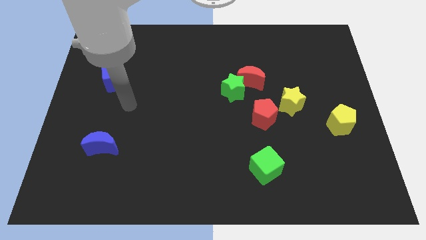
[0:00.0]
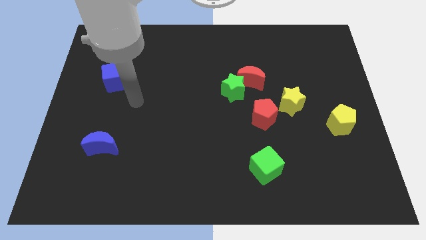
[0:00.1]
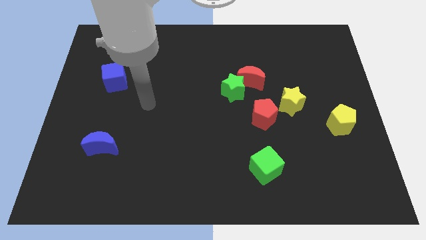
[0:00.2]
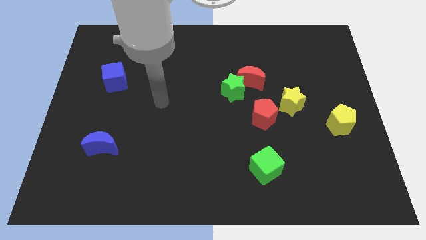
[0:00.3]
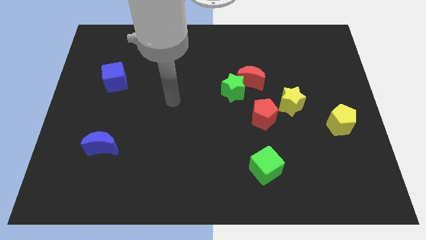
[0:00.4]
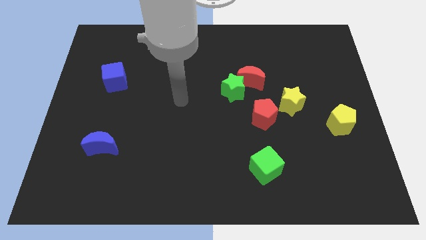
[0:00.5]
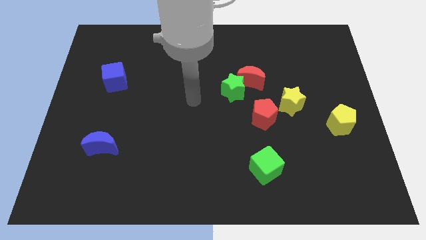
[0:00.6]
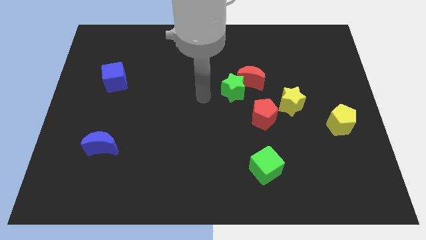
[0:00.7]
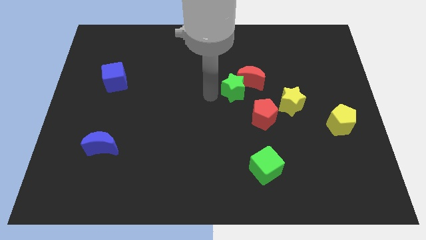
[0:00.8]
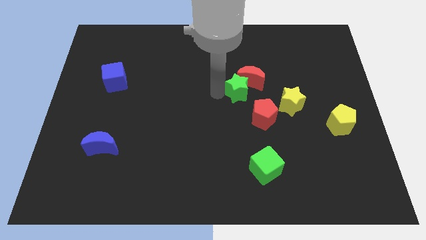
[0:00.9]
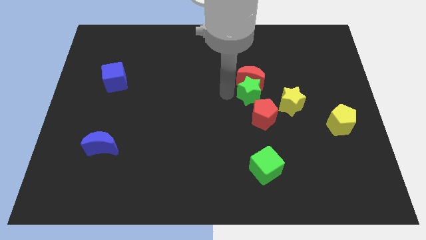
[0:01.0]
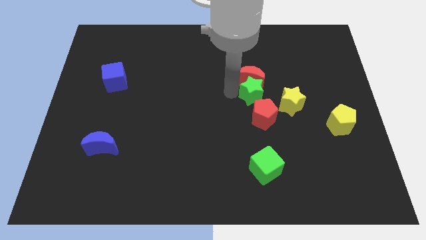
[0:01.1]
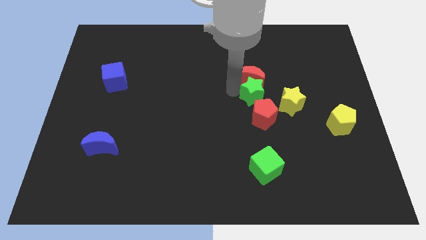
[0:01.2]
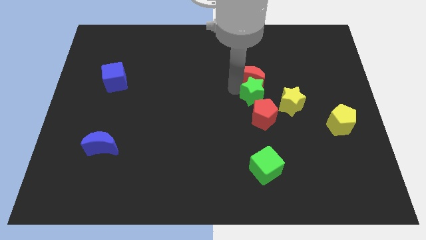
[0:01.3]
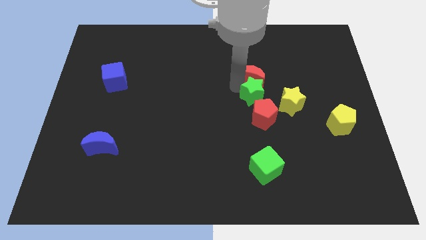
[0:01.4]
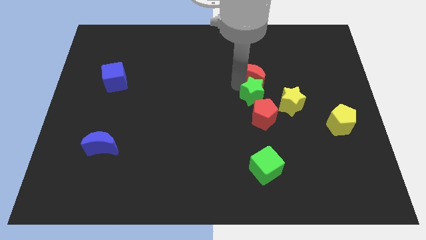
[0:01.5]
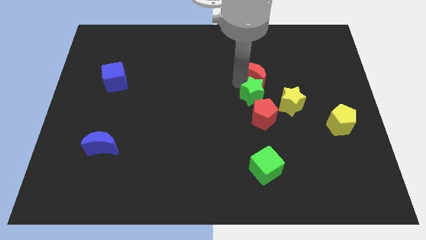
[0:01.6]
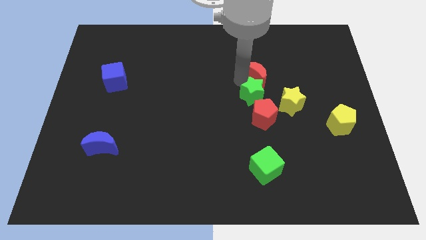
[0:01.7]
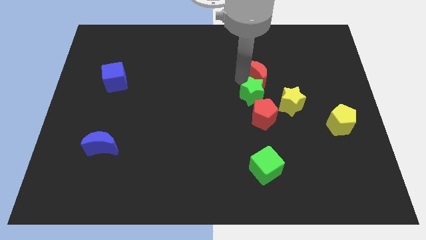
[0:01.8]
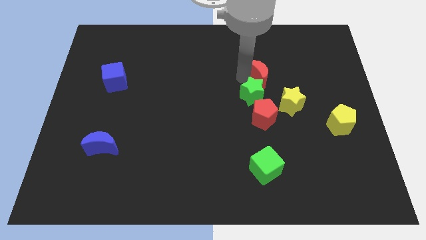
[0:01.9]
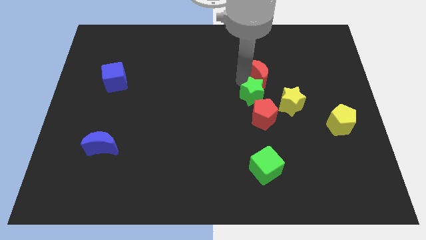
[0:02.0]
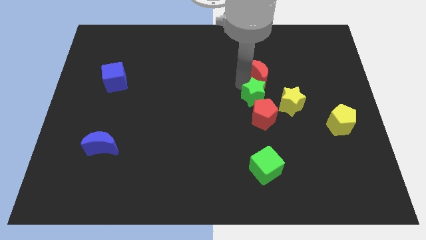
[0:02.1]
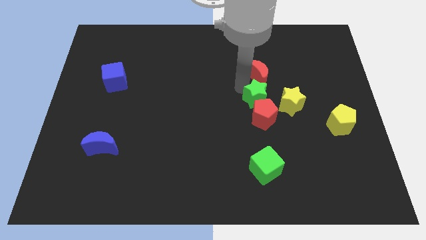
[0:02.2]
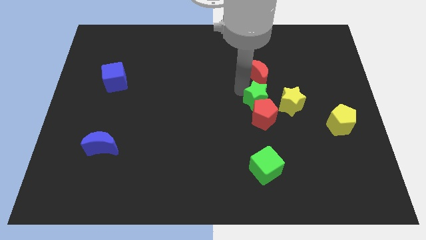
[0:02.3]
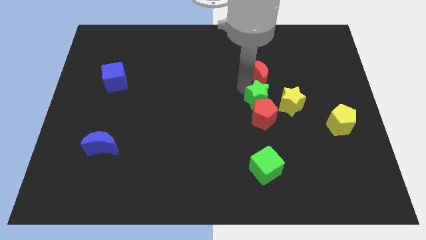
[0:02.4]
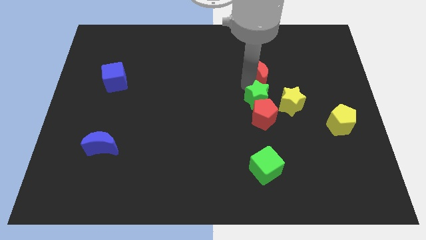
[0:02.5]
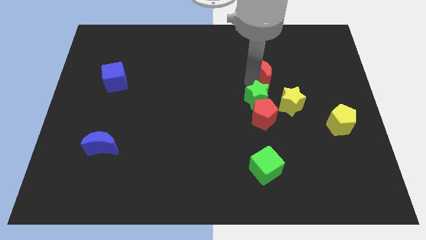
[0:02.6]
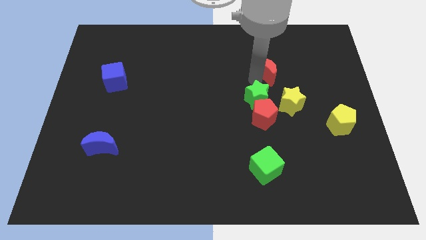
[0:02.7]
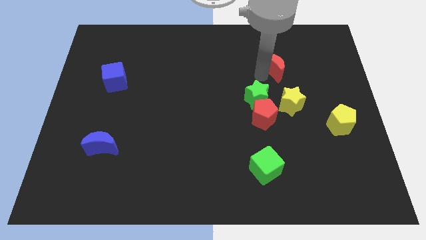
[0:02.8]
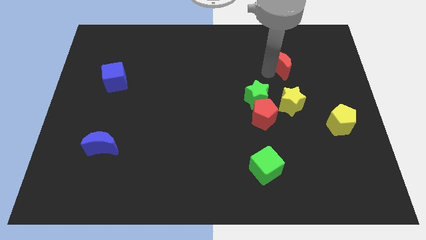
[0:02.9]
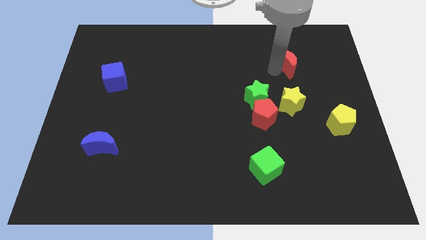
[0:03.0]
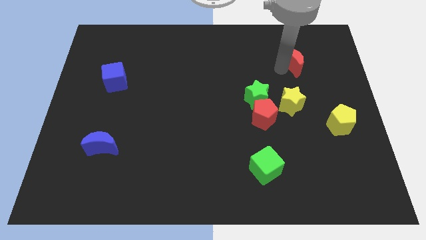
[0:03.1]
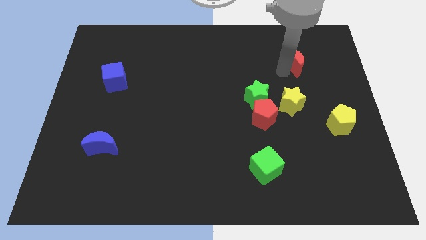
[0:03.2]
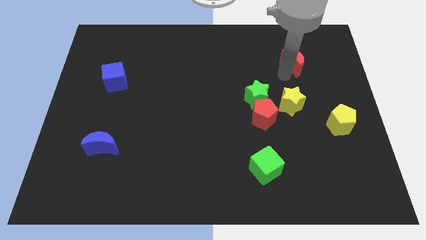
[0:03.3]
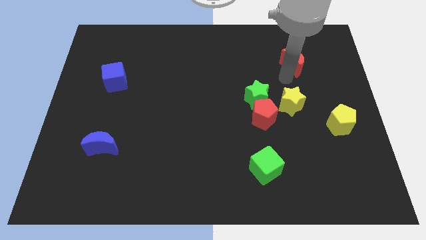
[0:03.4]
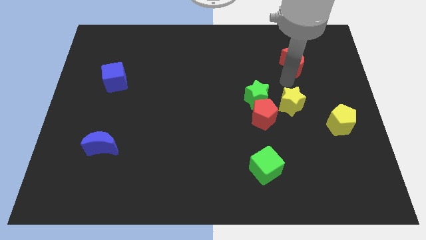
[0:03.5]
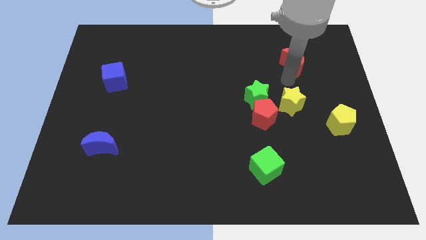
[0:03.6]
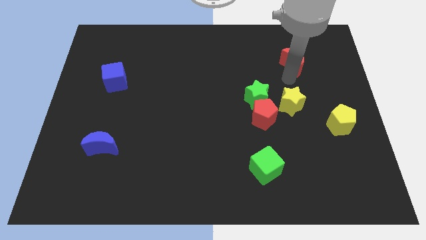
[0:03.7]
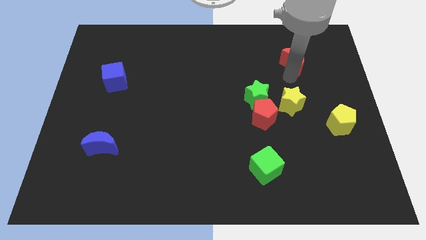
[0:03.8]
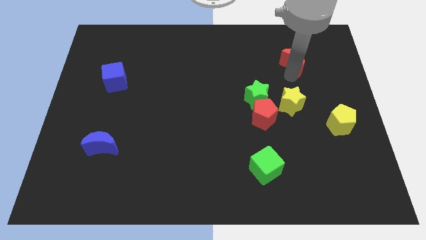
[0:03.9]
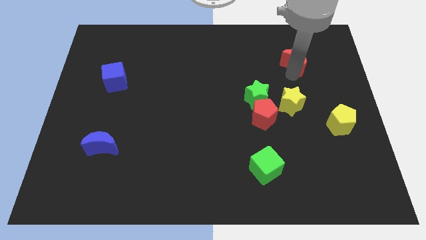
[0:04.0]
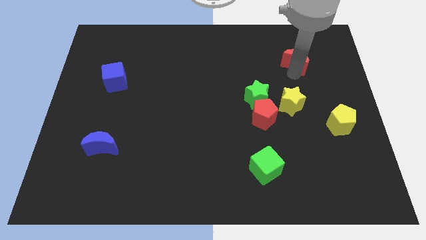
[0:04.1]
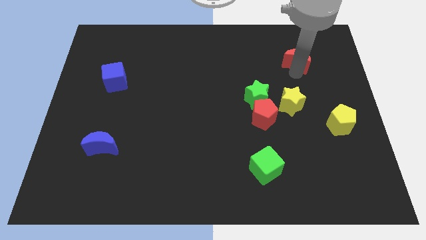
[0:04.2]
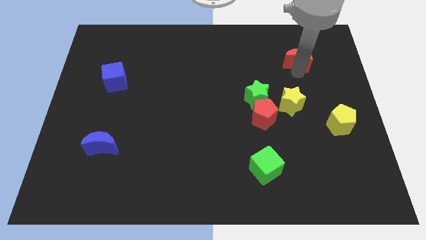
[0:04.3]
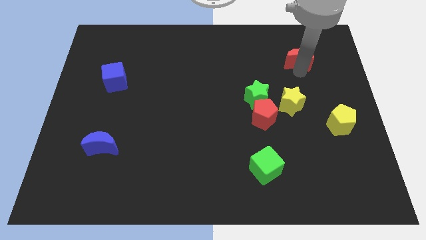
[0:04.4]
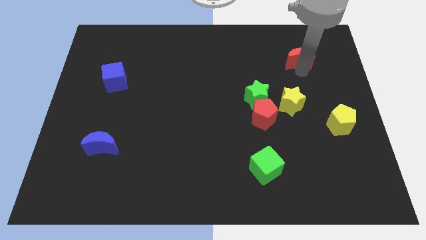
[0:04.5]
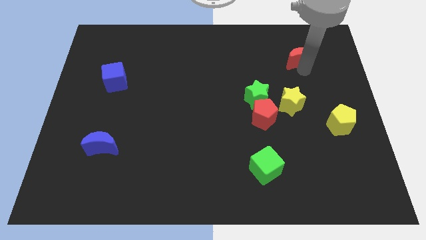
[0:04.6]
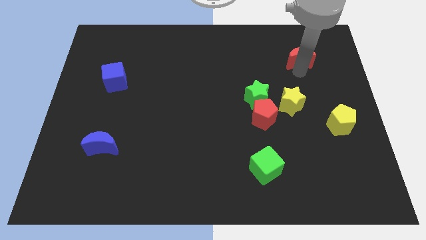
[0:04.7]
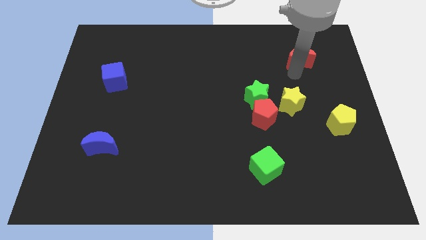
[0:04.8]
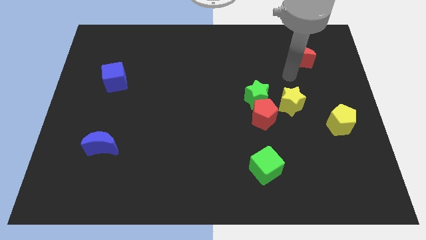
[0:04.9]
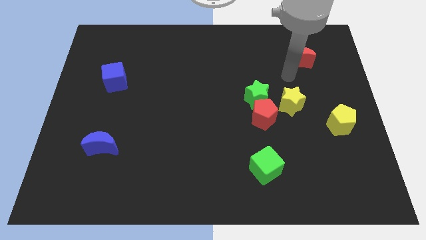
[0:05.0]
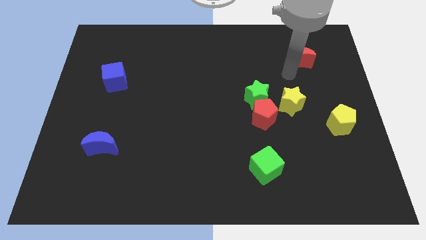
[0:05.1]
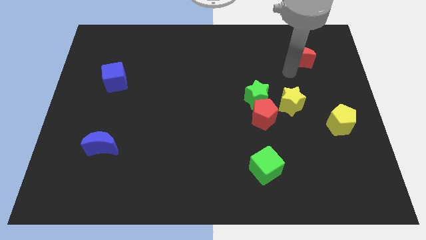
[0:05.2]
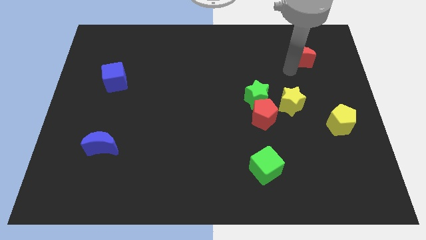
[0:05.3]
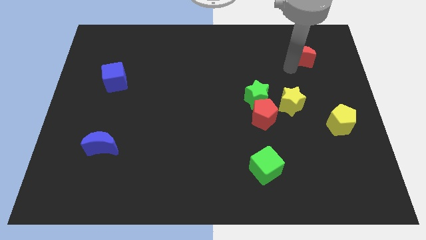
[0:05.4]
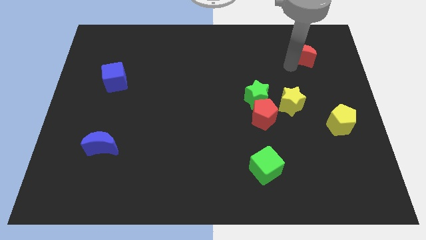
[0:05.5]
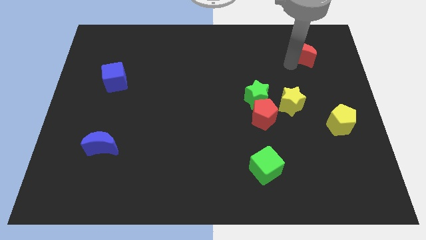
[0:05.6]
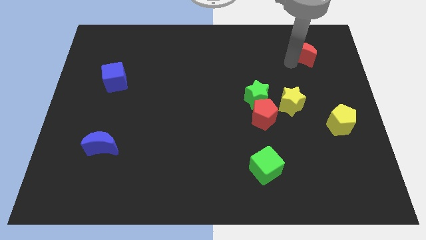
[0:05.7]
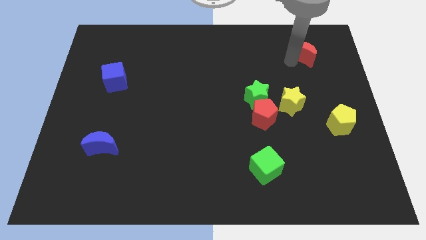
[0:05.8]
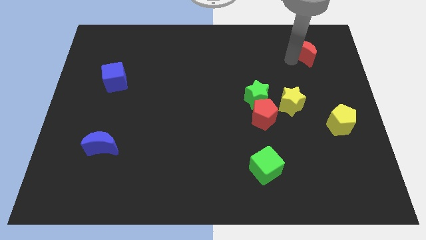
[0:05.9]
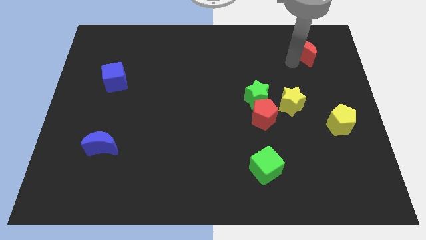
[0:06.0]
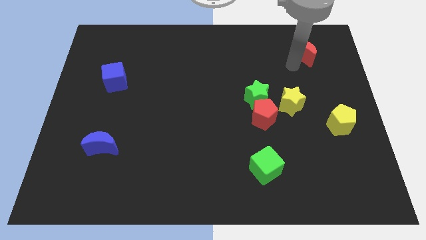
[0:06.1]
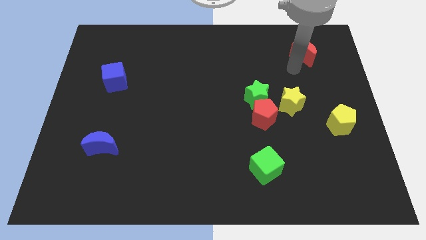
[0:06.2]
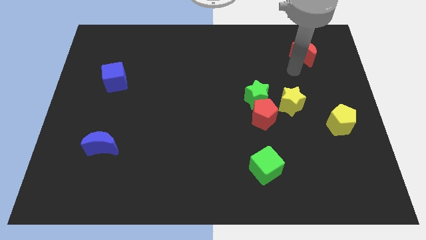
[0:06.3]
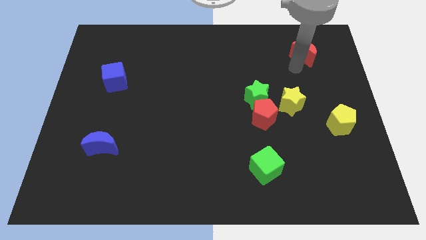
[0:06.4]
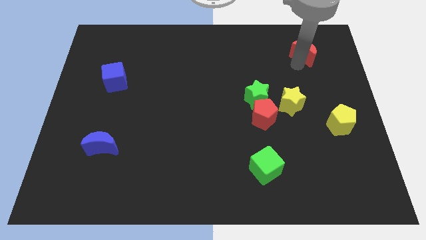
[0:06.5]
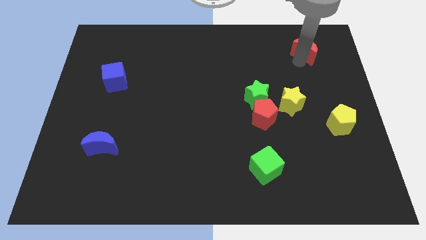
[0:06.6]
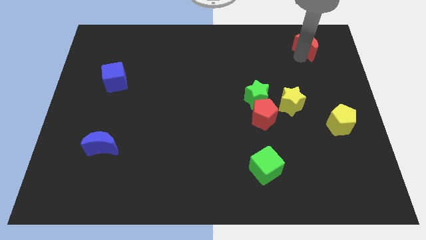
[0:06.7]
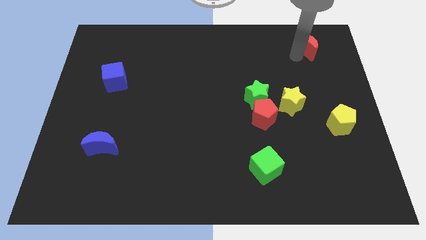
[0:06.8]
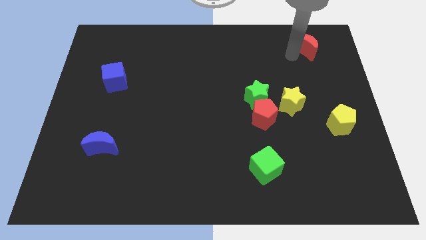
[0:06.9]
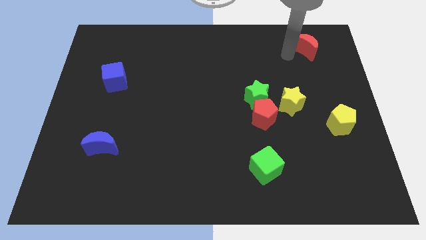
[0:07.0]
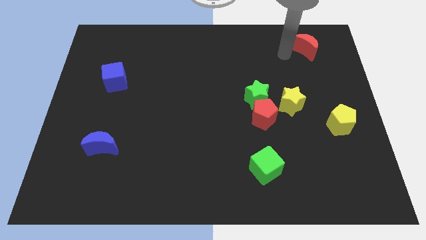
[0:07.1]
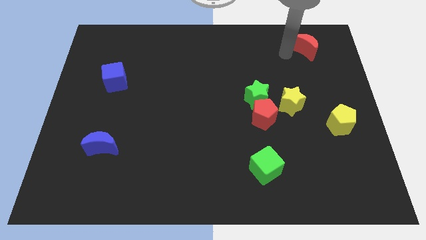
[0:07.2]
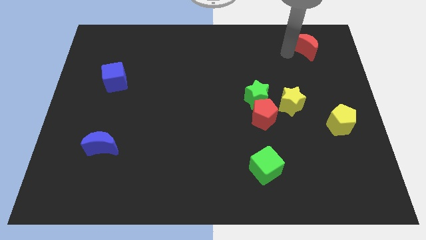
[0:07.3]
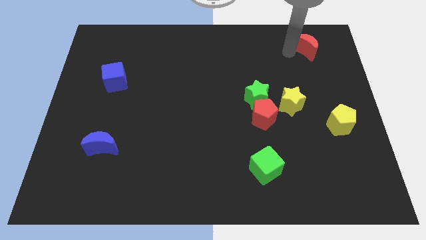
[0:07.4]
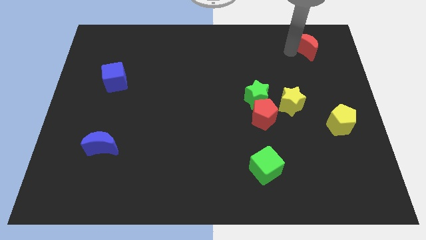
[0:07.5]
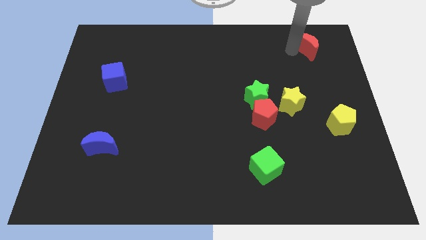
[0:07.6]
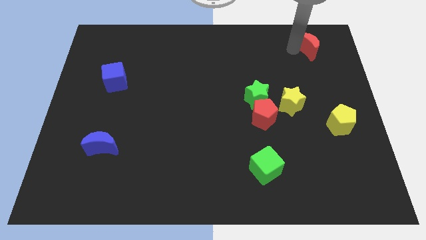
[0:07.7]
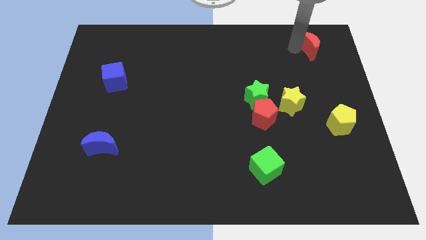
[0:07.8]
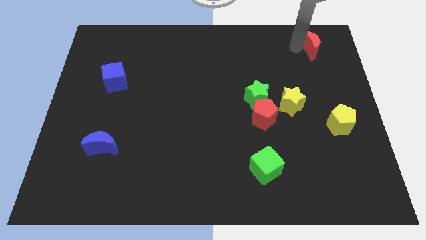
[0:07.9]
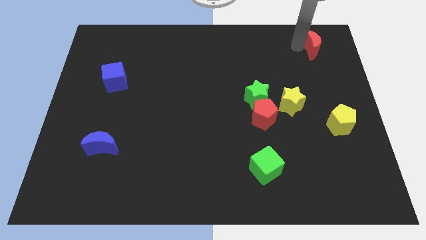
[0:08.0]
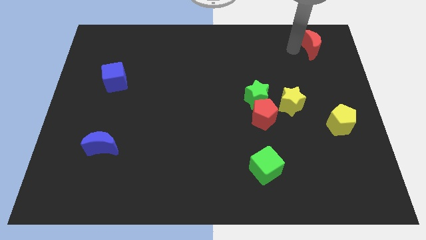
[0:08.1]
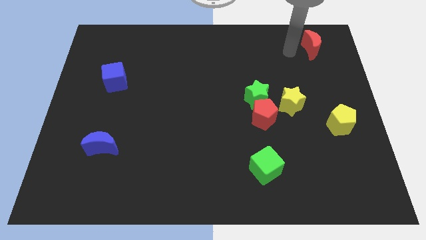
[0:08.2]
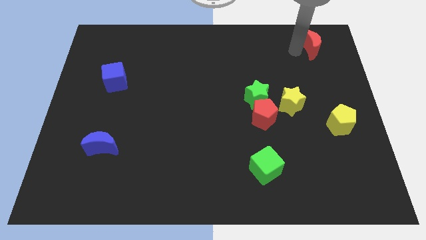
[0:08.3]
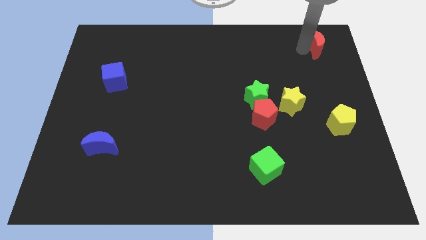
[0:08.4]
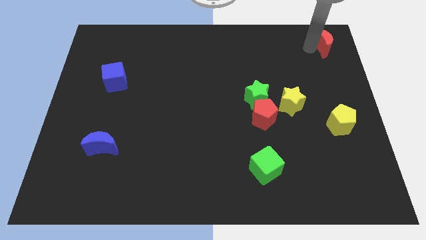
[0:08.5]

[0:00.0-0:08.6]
slide the red moon to the top right of the board
